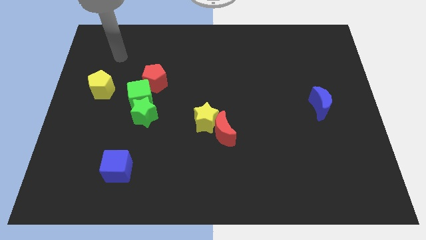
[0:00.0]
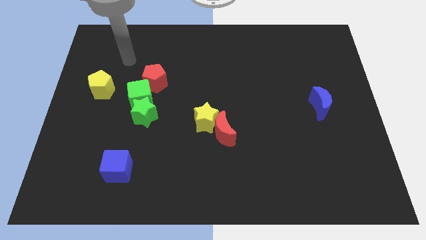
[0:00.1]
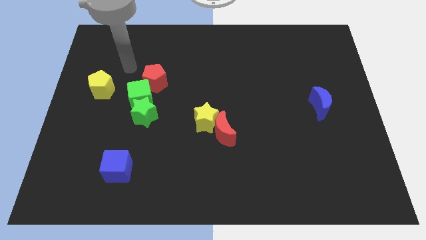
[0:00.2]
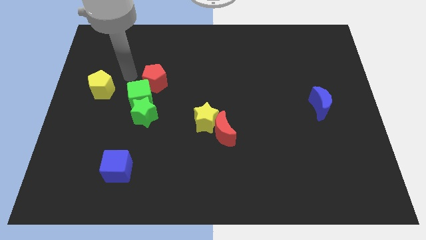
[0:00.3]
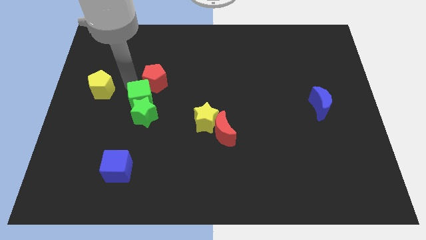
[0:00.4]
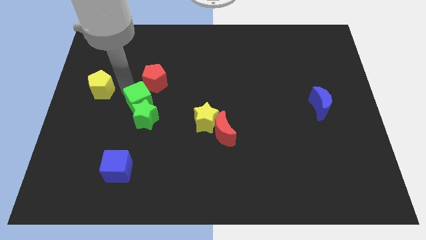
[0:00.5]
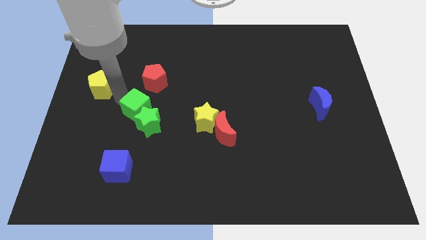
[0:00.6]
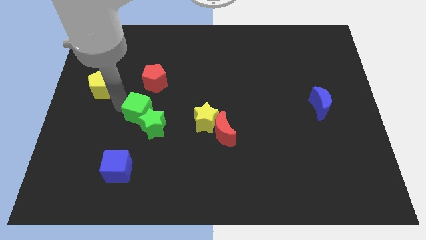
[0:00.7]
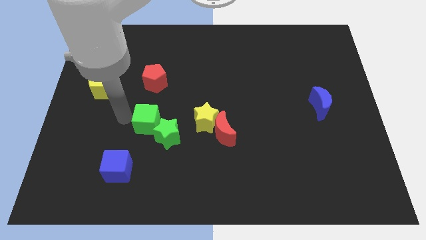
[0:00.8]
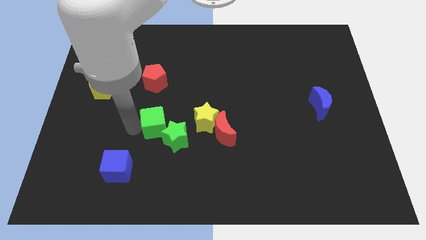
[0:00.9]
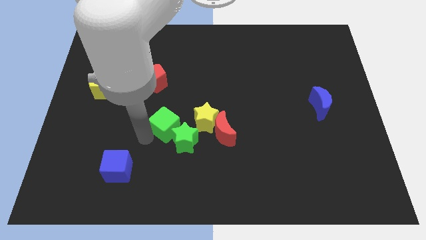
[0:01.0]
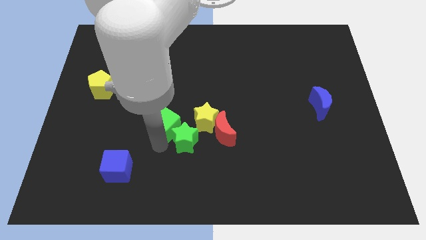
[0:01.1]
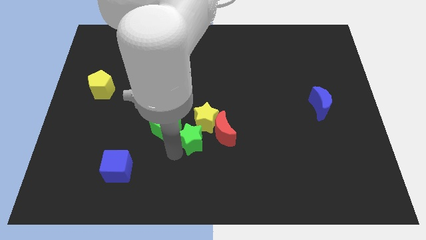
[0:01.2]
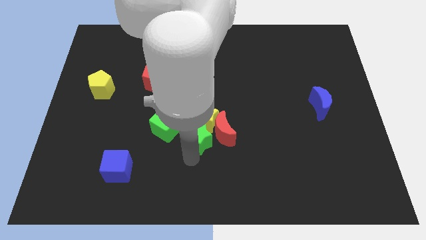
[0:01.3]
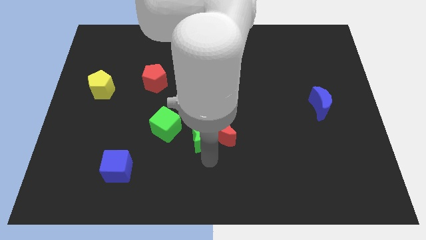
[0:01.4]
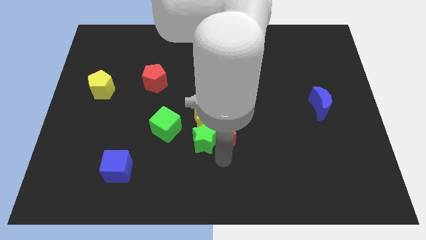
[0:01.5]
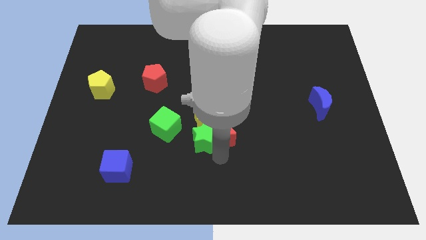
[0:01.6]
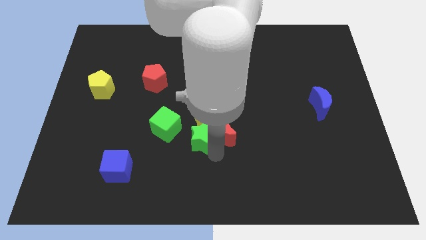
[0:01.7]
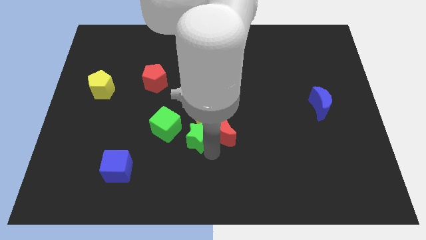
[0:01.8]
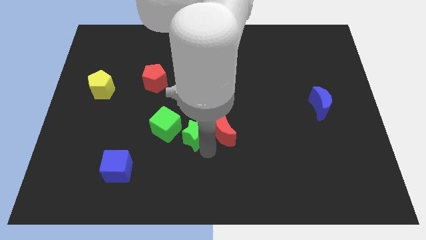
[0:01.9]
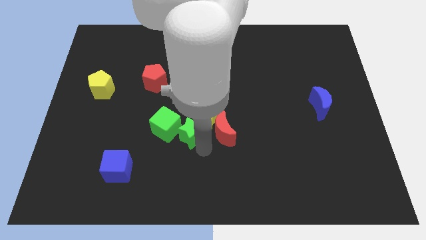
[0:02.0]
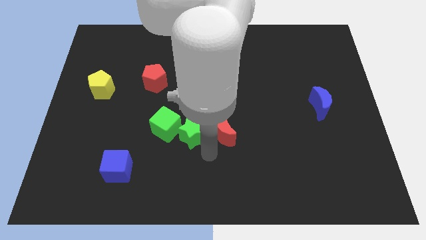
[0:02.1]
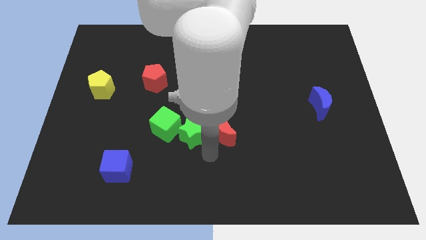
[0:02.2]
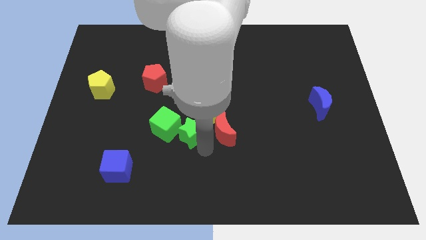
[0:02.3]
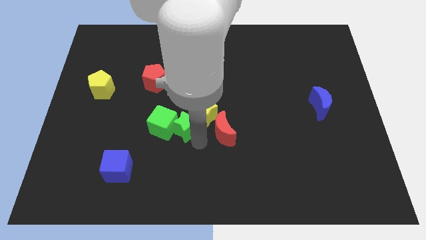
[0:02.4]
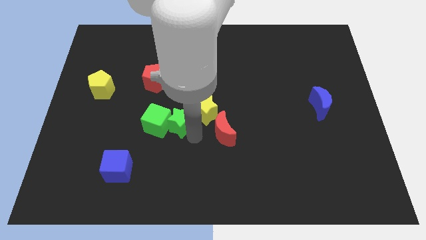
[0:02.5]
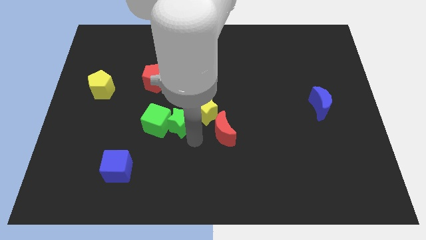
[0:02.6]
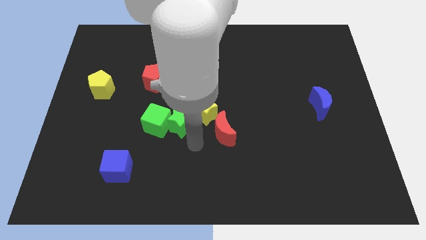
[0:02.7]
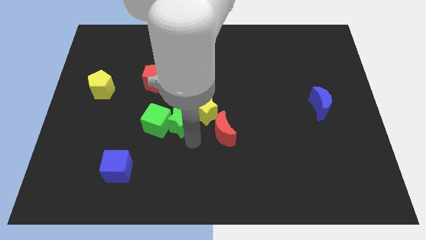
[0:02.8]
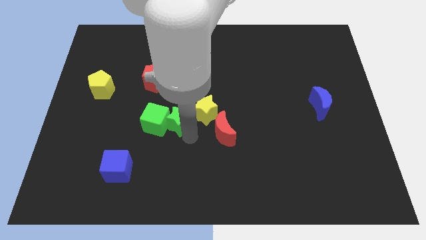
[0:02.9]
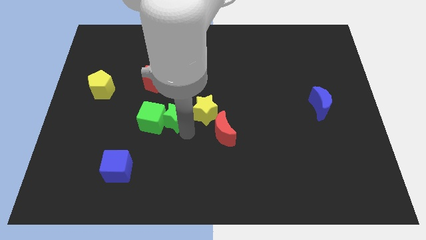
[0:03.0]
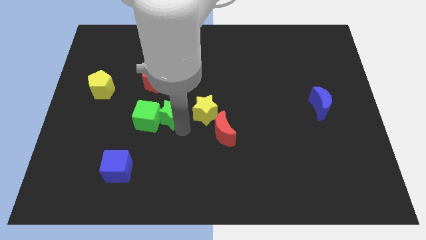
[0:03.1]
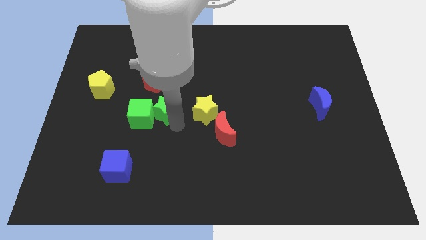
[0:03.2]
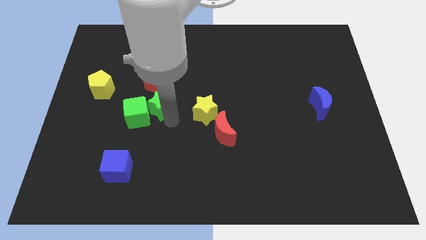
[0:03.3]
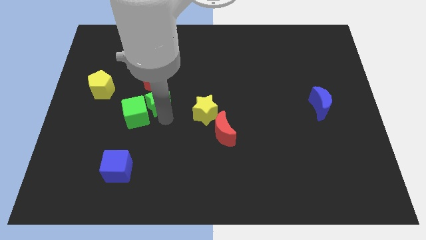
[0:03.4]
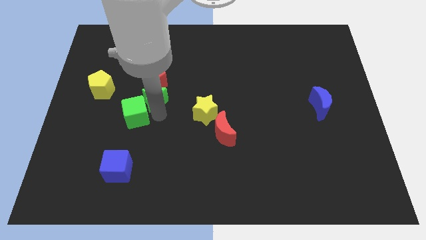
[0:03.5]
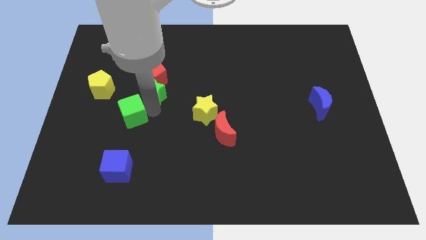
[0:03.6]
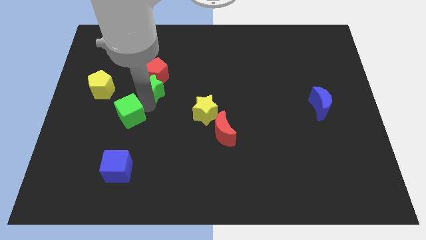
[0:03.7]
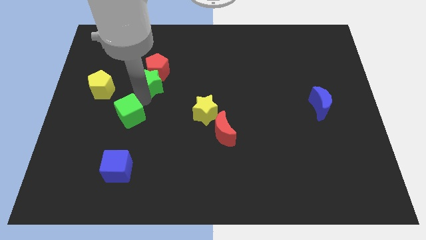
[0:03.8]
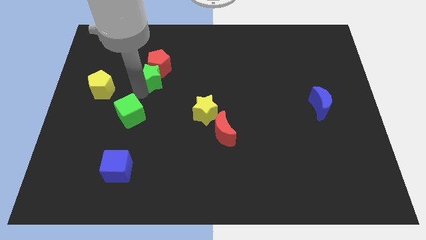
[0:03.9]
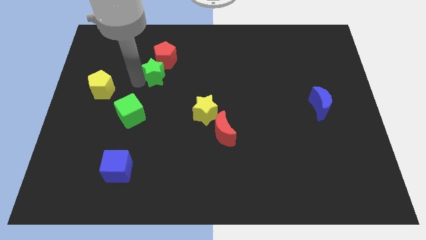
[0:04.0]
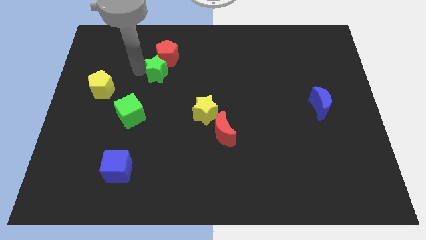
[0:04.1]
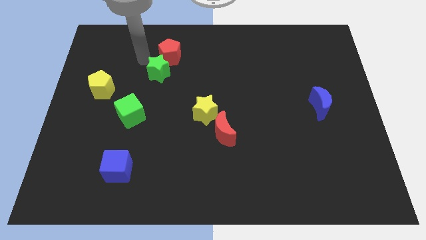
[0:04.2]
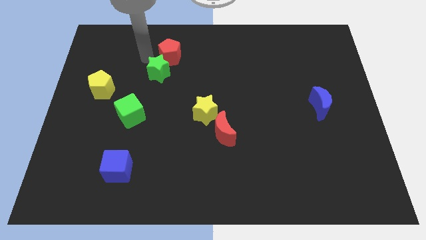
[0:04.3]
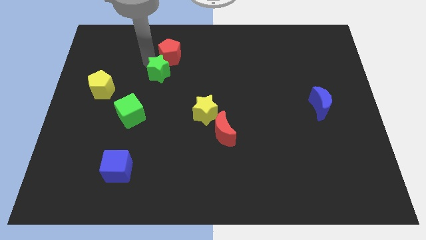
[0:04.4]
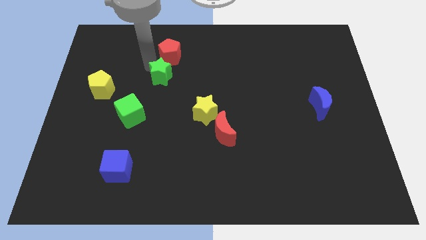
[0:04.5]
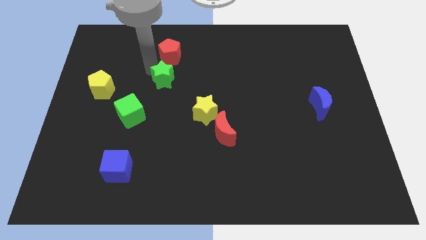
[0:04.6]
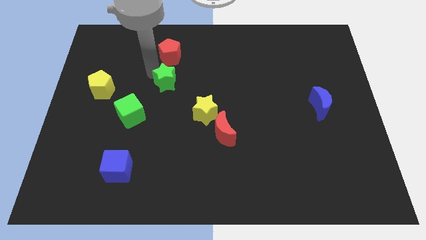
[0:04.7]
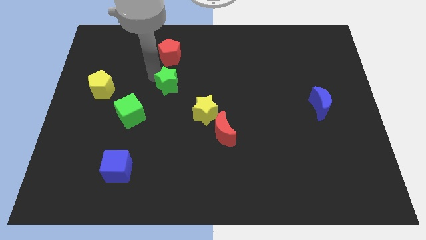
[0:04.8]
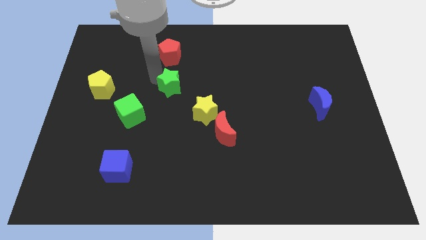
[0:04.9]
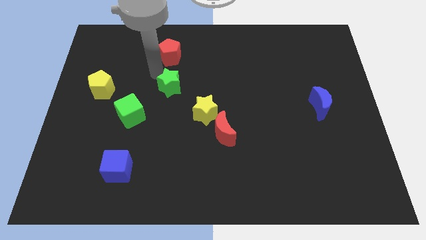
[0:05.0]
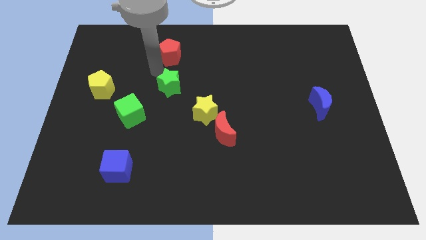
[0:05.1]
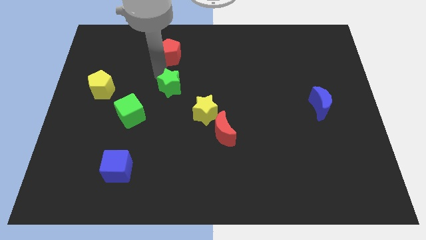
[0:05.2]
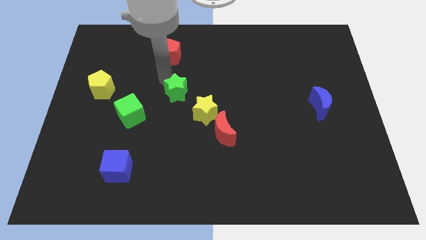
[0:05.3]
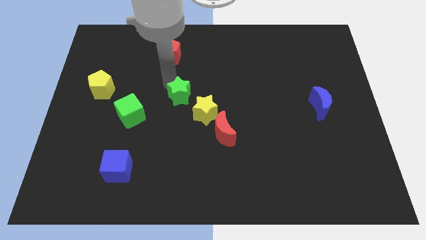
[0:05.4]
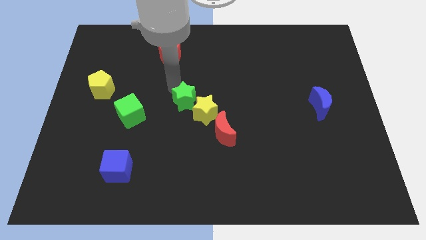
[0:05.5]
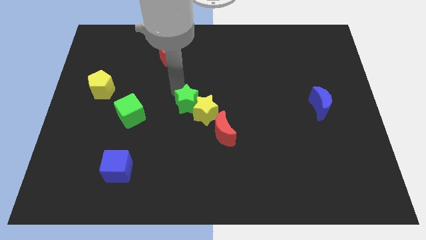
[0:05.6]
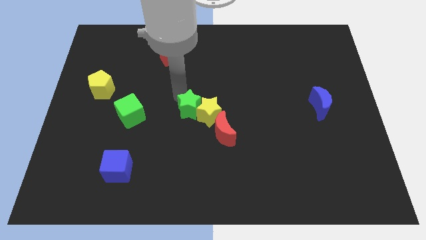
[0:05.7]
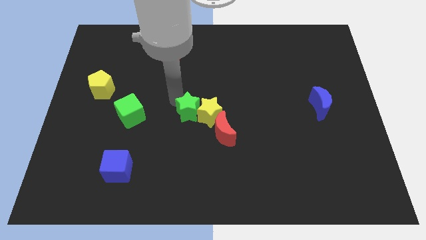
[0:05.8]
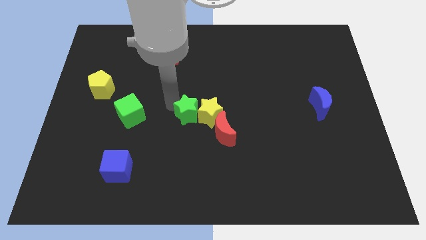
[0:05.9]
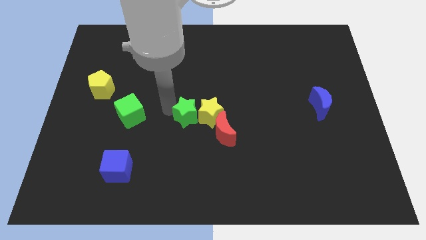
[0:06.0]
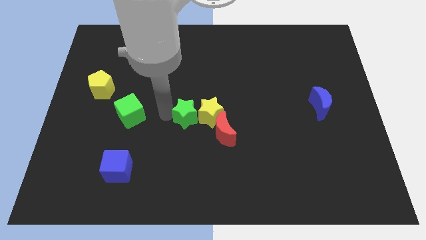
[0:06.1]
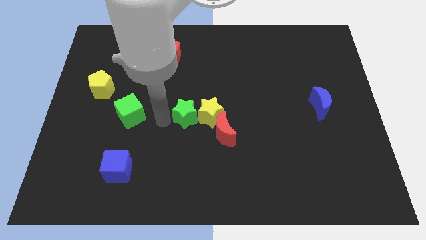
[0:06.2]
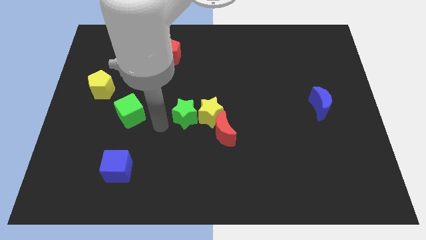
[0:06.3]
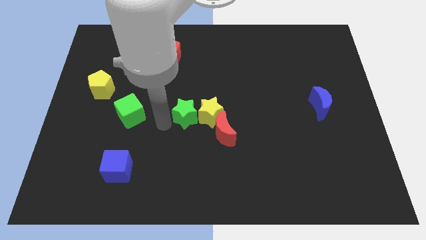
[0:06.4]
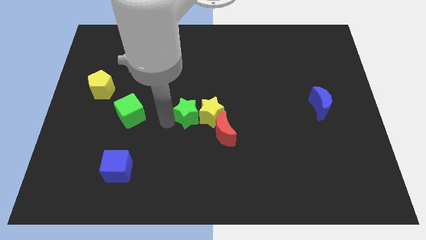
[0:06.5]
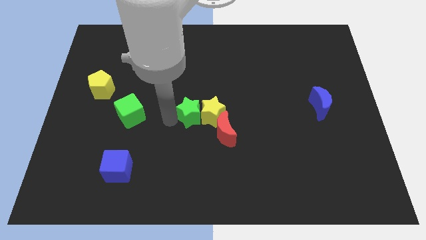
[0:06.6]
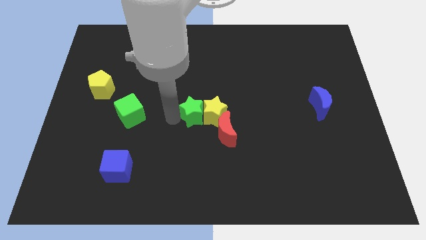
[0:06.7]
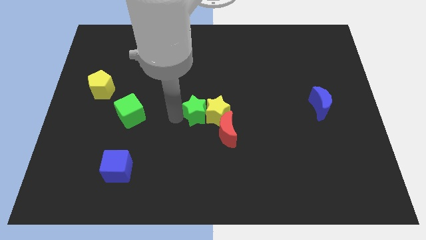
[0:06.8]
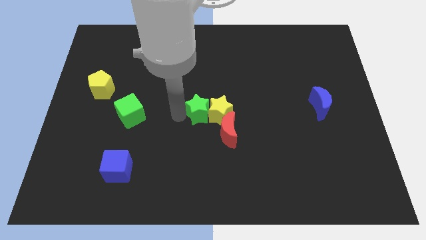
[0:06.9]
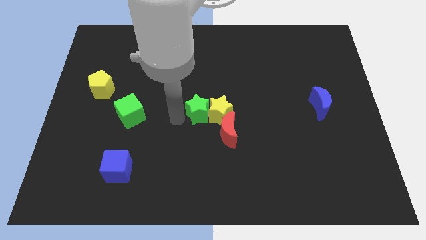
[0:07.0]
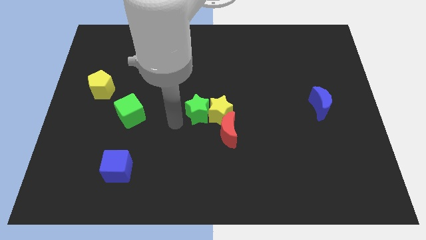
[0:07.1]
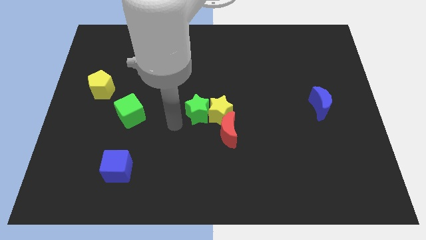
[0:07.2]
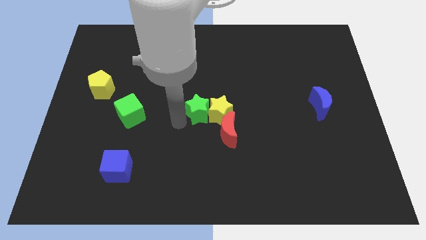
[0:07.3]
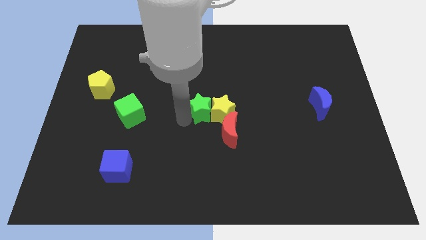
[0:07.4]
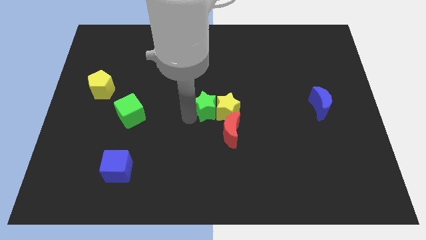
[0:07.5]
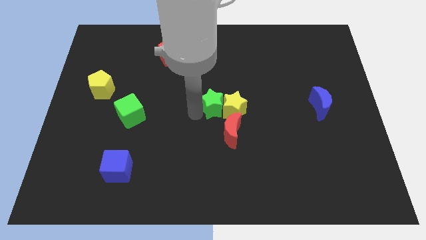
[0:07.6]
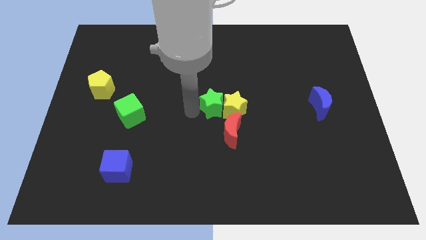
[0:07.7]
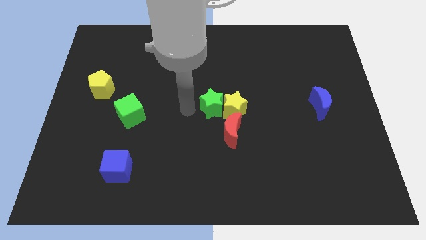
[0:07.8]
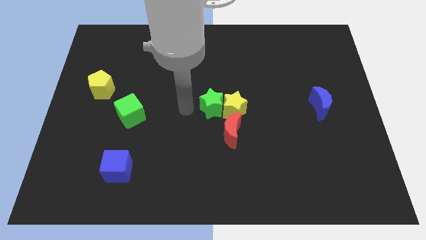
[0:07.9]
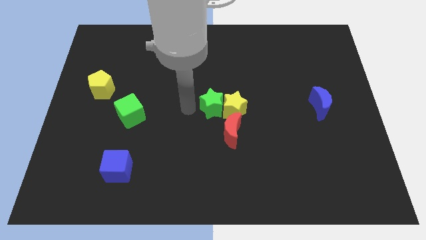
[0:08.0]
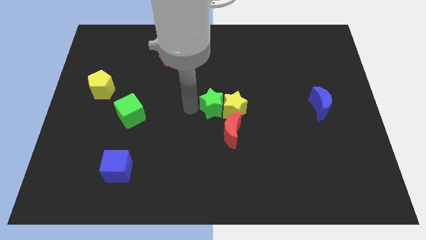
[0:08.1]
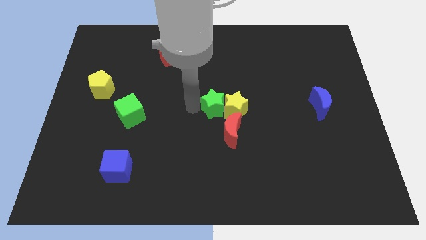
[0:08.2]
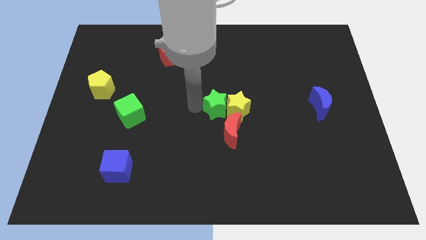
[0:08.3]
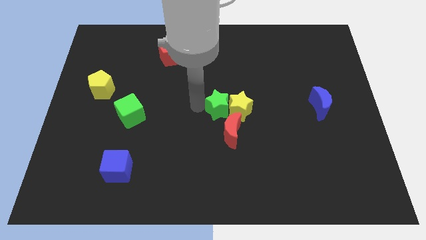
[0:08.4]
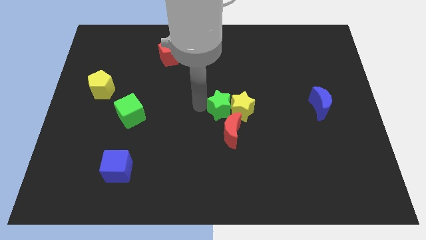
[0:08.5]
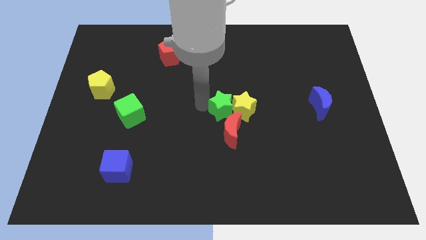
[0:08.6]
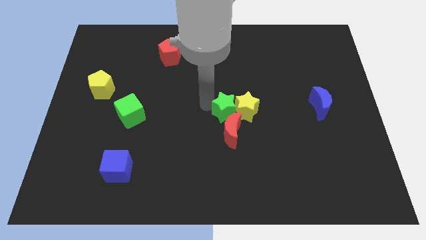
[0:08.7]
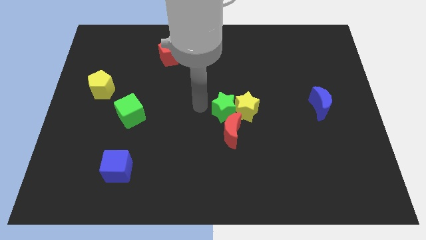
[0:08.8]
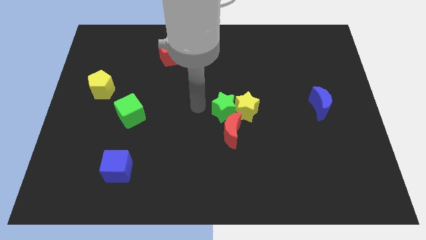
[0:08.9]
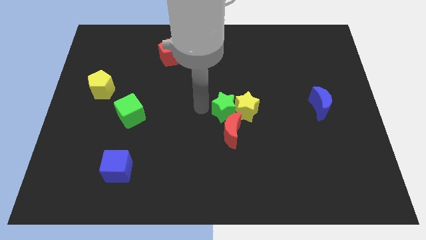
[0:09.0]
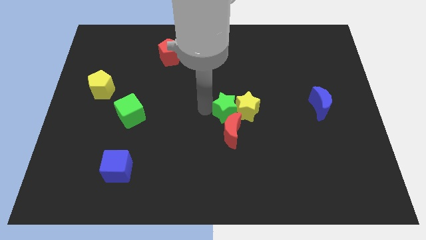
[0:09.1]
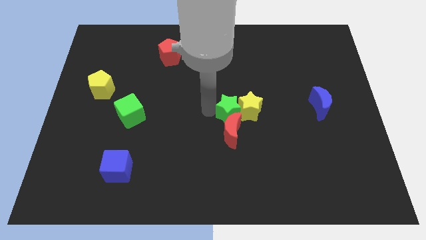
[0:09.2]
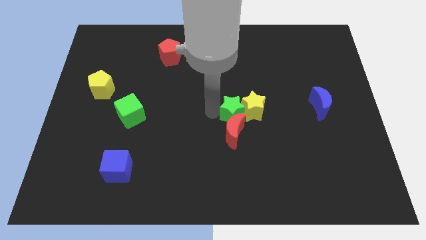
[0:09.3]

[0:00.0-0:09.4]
slide the green star to the right
